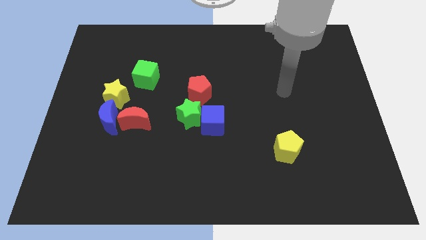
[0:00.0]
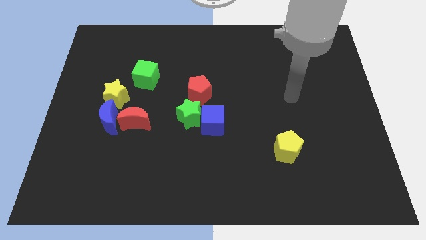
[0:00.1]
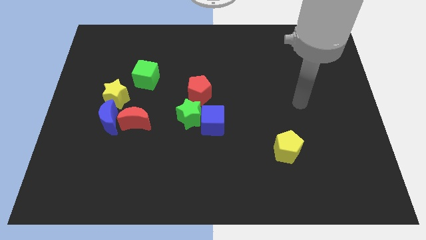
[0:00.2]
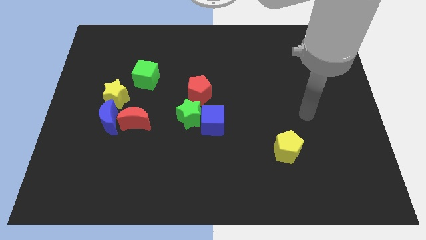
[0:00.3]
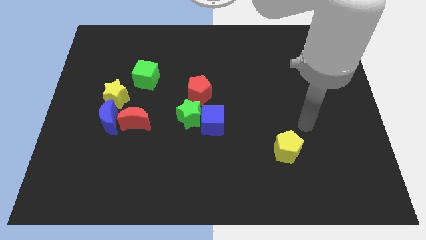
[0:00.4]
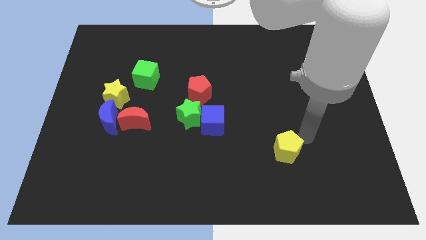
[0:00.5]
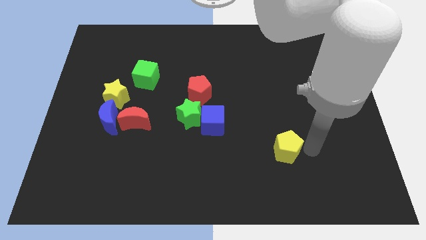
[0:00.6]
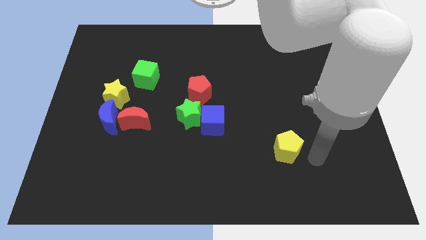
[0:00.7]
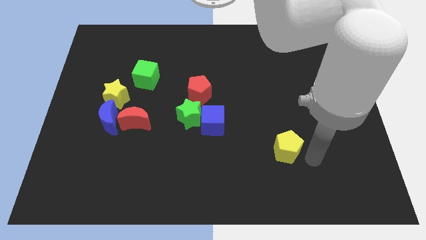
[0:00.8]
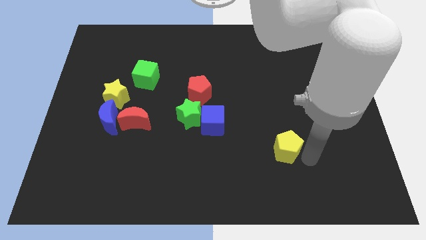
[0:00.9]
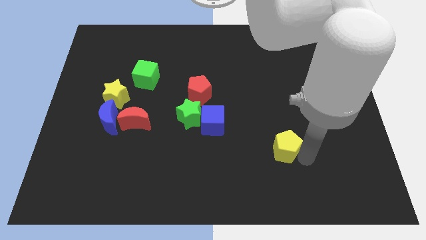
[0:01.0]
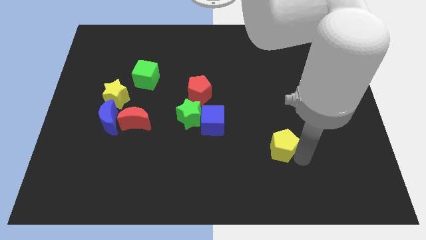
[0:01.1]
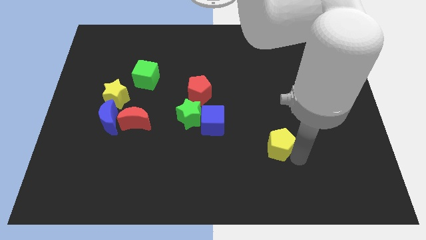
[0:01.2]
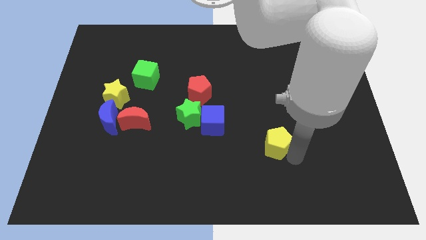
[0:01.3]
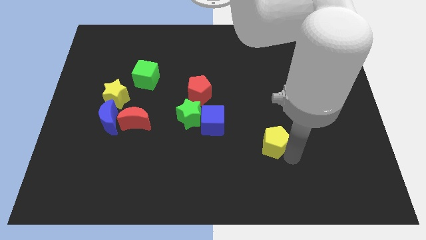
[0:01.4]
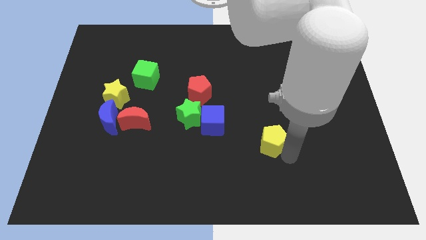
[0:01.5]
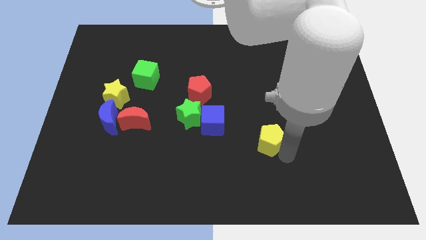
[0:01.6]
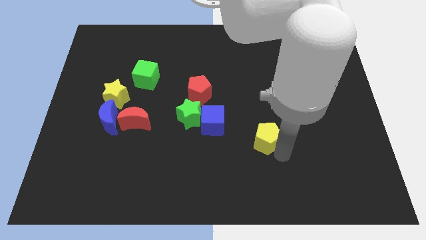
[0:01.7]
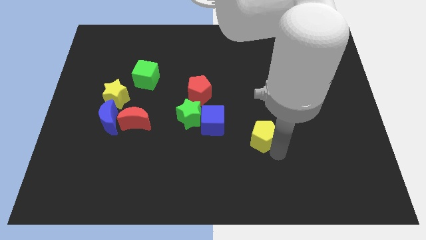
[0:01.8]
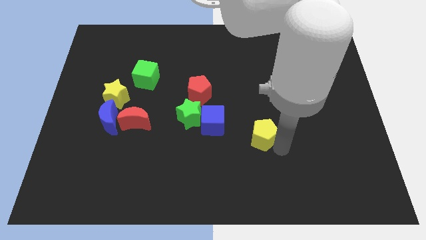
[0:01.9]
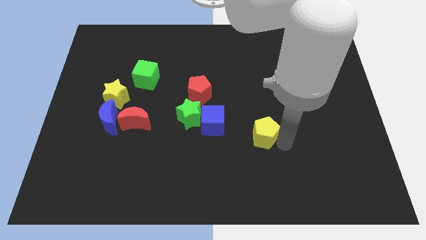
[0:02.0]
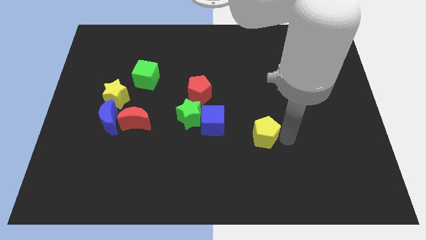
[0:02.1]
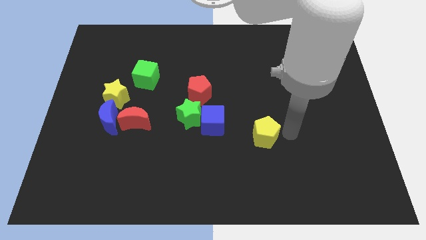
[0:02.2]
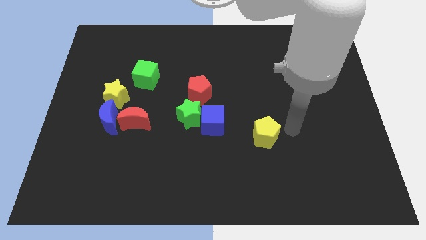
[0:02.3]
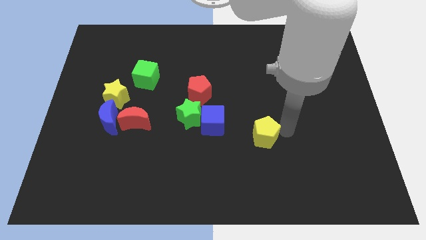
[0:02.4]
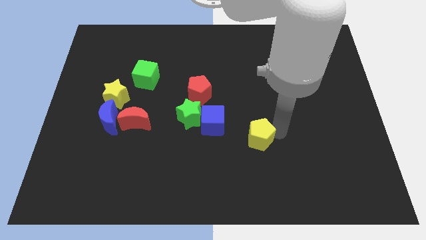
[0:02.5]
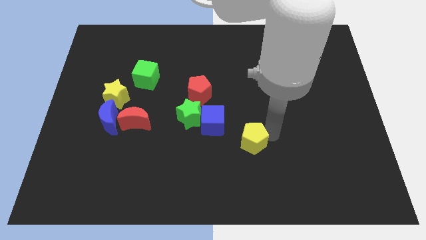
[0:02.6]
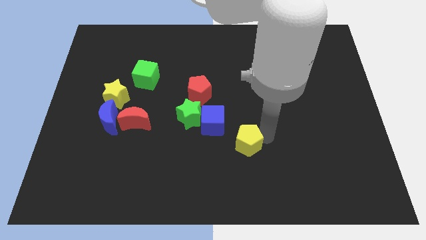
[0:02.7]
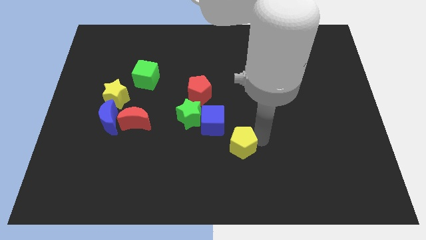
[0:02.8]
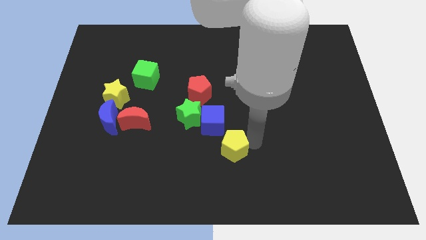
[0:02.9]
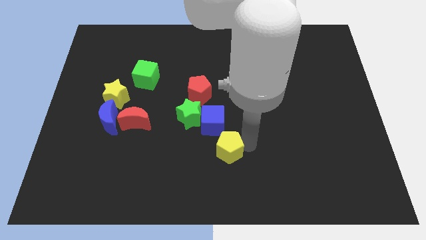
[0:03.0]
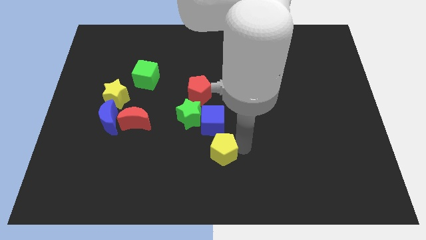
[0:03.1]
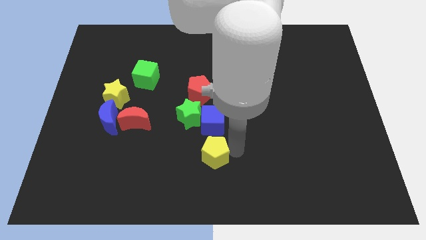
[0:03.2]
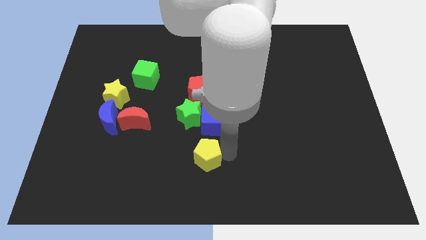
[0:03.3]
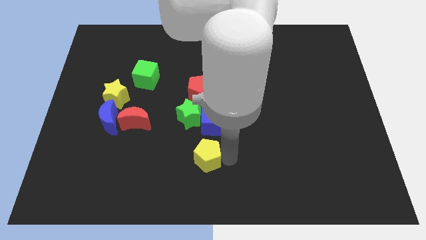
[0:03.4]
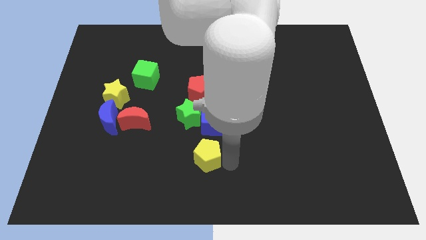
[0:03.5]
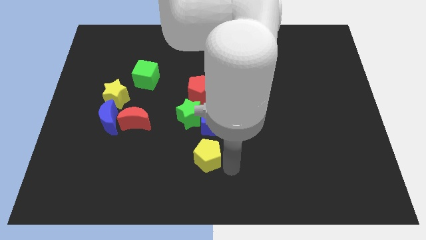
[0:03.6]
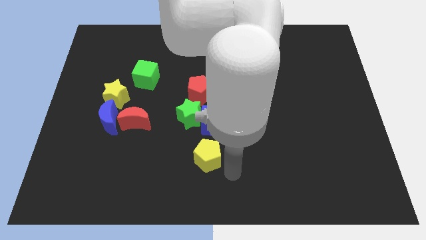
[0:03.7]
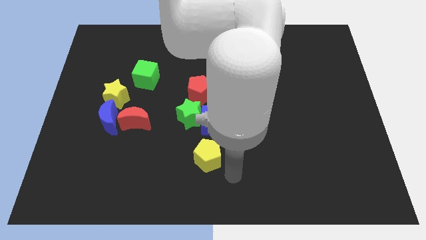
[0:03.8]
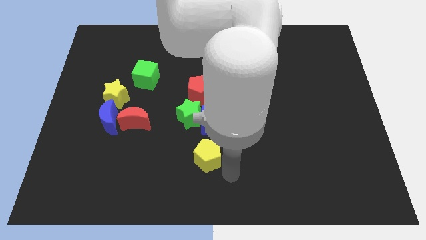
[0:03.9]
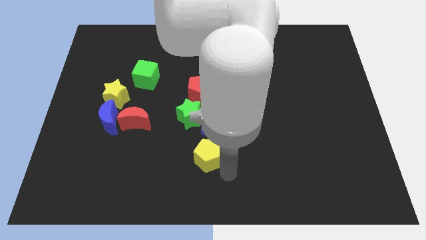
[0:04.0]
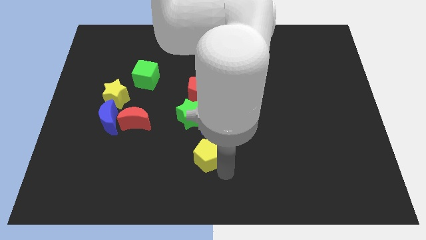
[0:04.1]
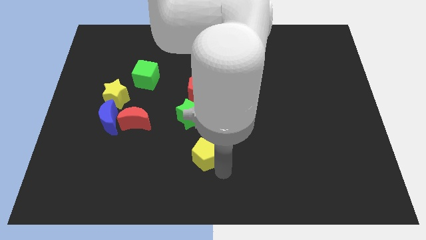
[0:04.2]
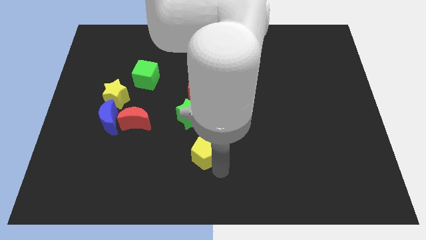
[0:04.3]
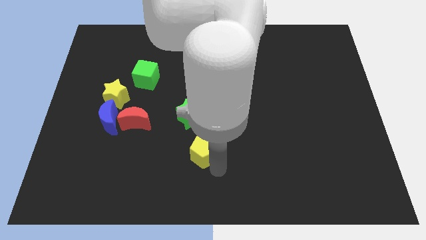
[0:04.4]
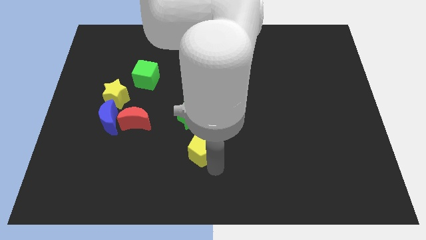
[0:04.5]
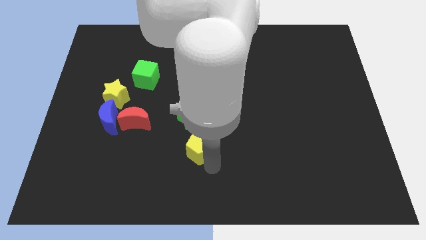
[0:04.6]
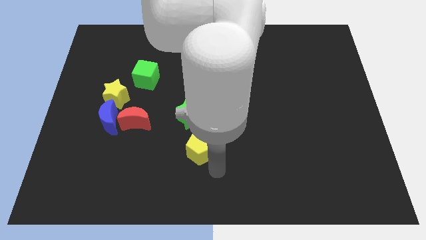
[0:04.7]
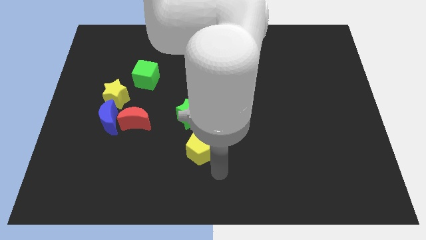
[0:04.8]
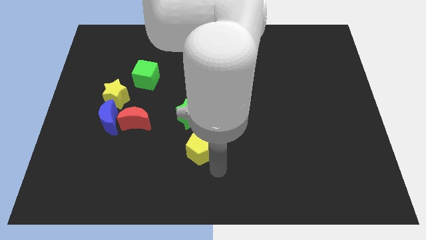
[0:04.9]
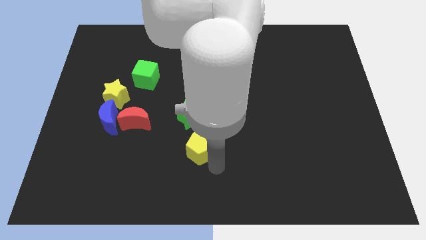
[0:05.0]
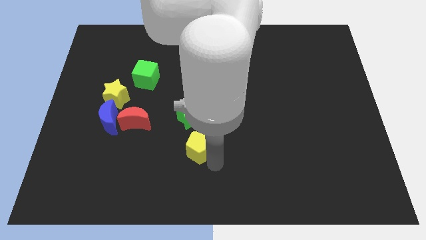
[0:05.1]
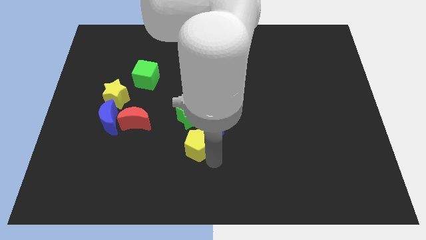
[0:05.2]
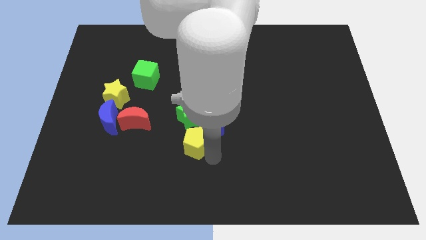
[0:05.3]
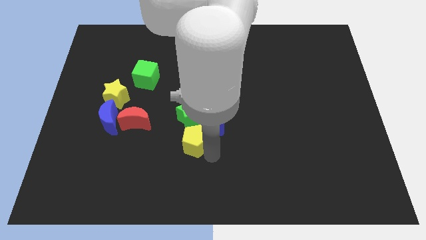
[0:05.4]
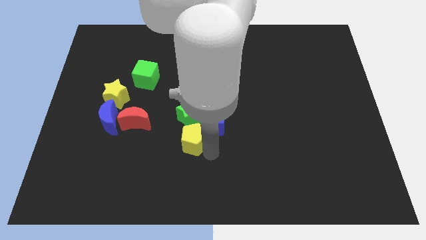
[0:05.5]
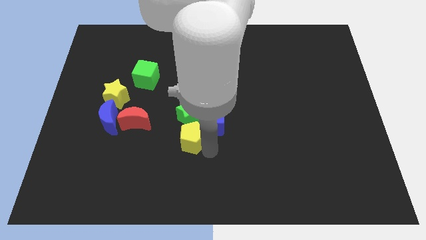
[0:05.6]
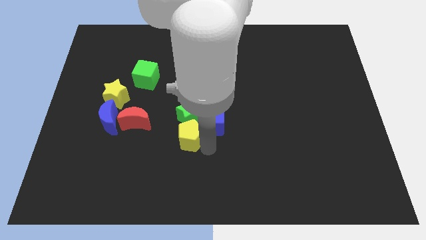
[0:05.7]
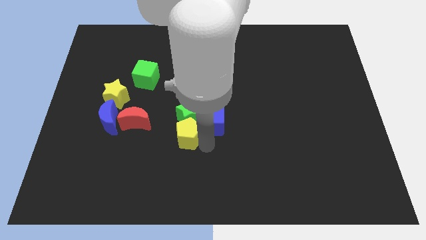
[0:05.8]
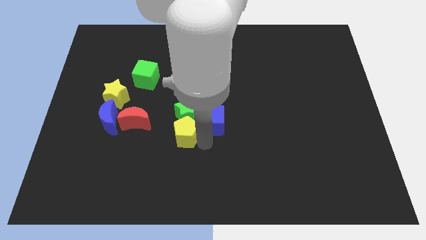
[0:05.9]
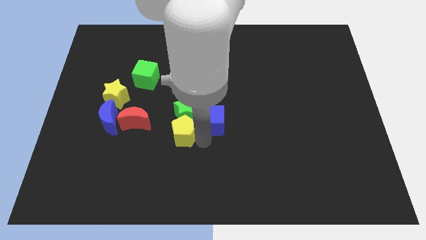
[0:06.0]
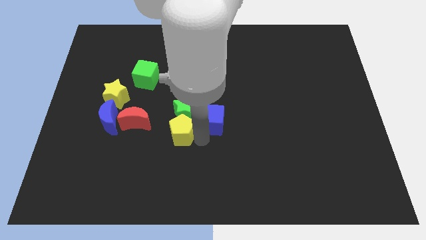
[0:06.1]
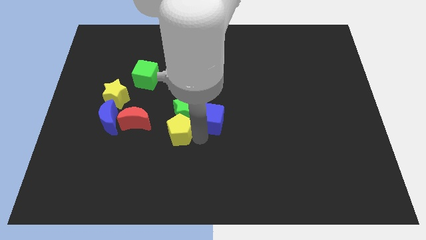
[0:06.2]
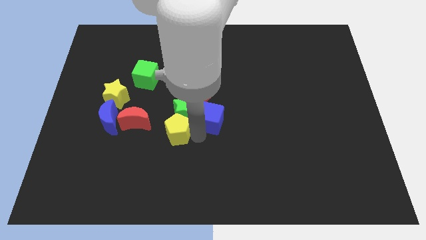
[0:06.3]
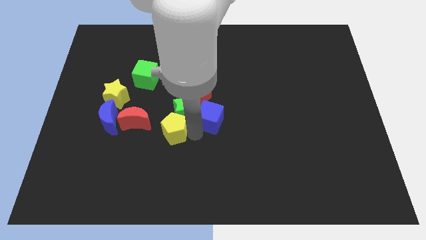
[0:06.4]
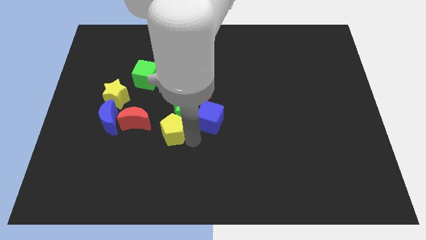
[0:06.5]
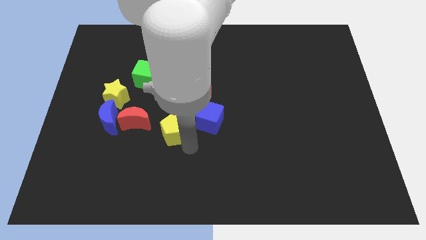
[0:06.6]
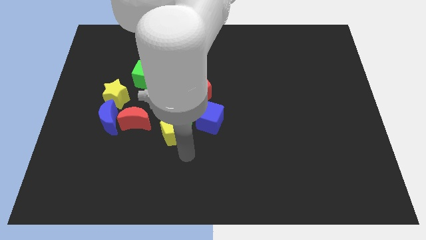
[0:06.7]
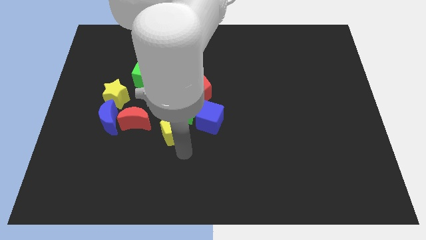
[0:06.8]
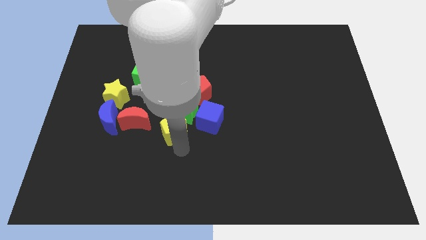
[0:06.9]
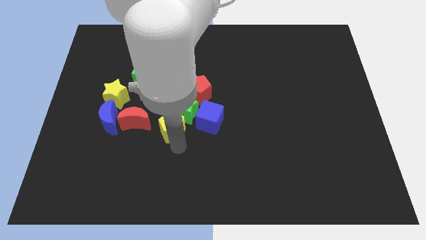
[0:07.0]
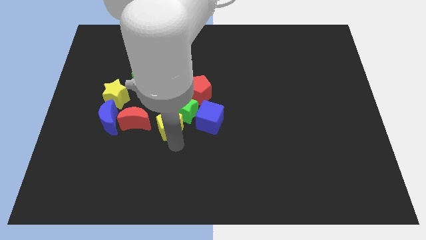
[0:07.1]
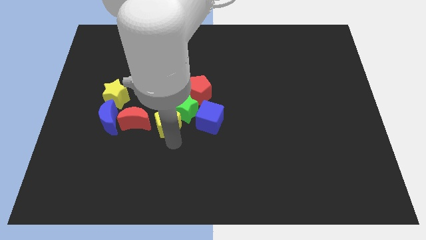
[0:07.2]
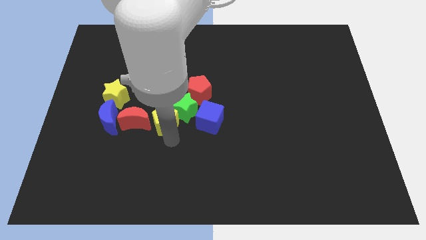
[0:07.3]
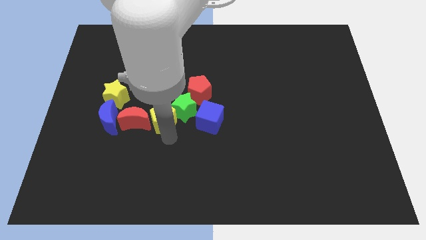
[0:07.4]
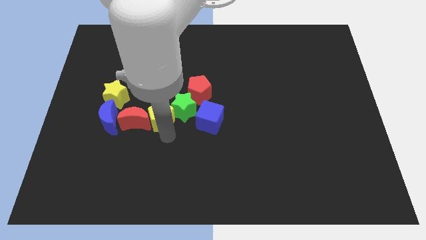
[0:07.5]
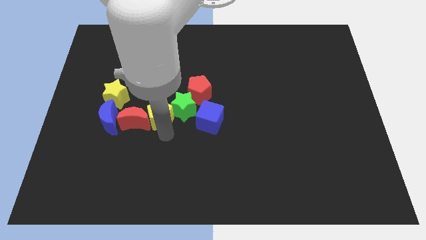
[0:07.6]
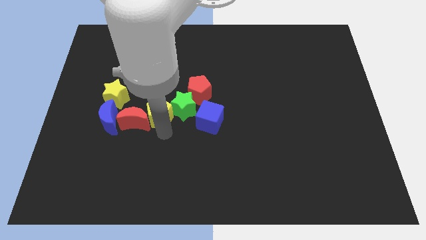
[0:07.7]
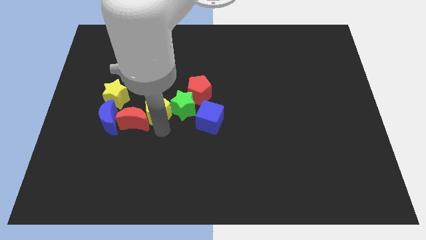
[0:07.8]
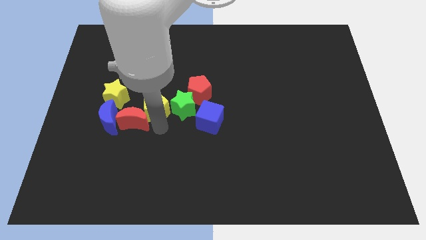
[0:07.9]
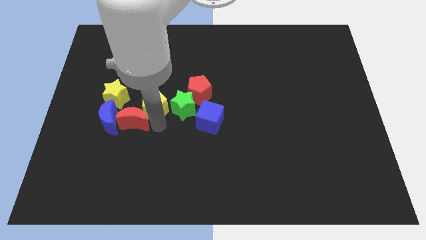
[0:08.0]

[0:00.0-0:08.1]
slide the yellow pentagon diagonally up and to the right of the blue moon
